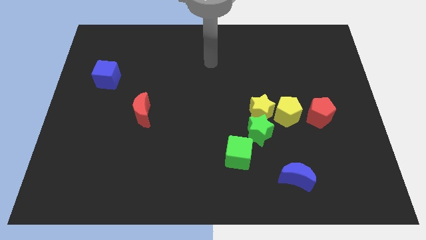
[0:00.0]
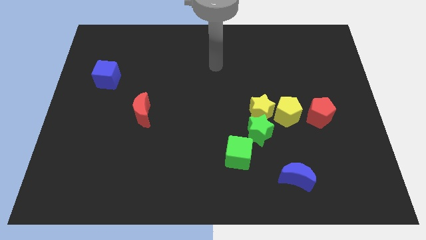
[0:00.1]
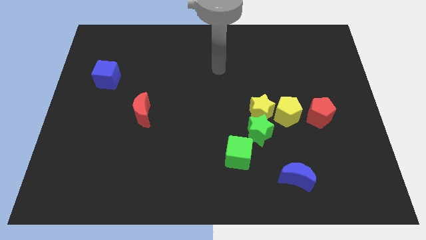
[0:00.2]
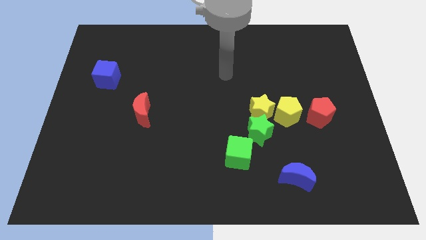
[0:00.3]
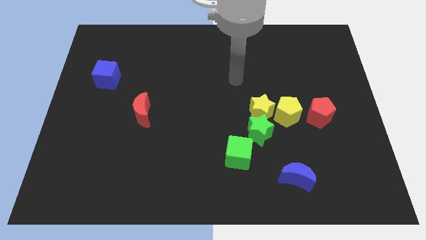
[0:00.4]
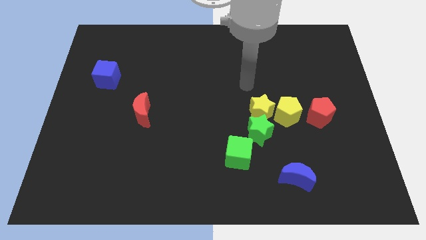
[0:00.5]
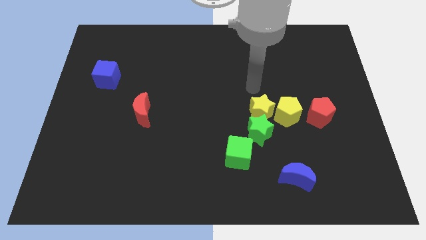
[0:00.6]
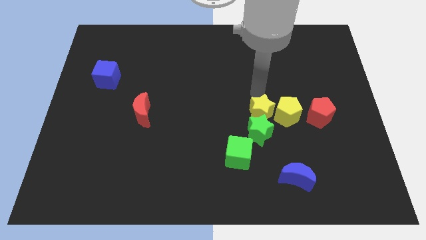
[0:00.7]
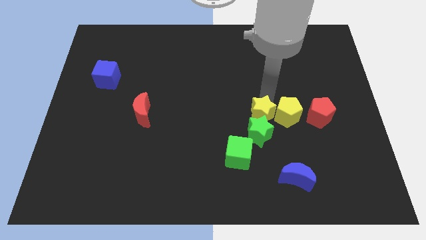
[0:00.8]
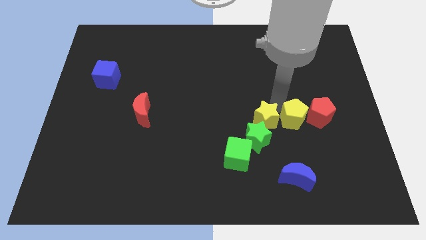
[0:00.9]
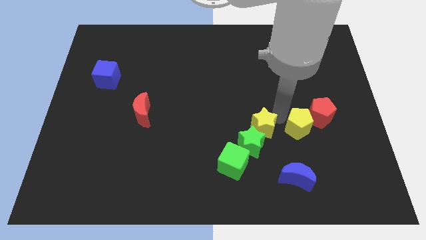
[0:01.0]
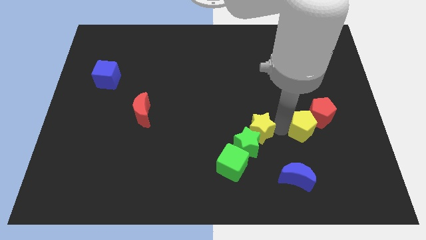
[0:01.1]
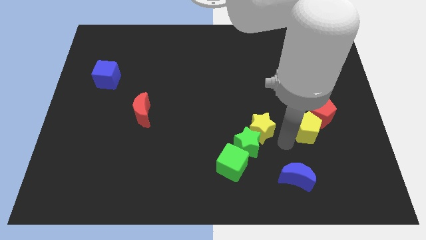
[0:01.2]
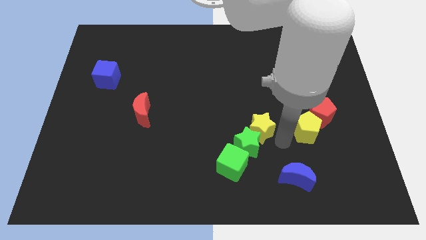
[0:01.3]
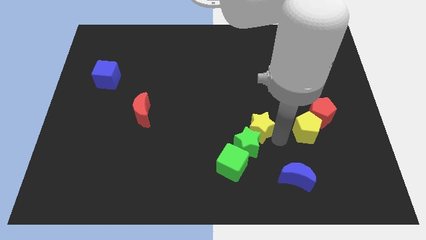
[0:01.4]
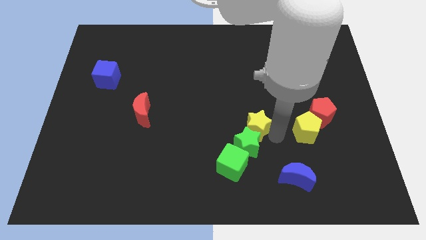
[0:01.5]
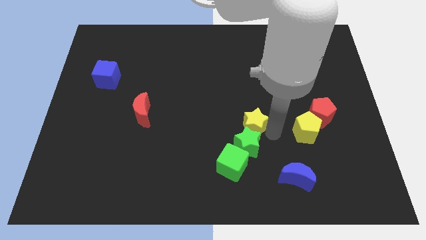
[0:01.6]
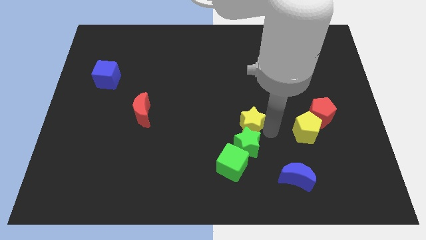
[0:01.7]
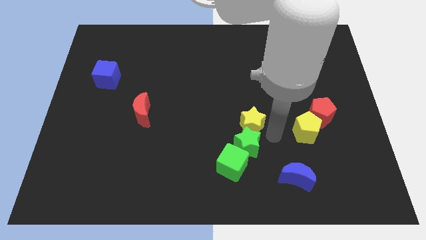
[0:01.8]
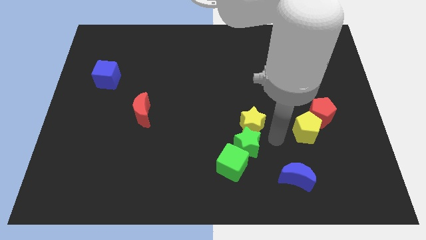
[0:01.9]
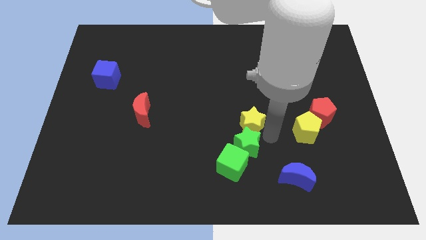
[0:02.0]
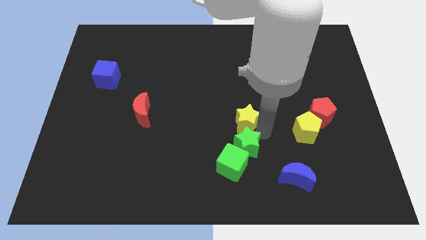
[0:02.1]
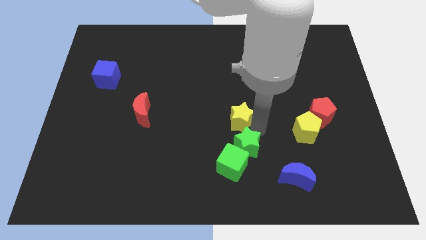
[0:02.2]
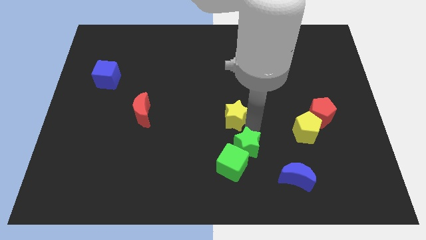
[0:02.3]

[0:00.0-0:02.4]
move the yellow star away from the green star and yellow pentagon

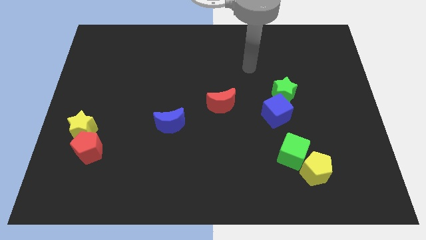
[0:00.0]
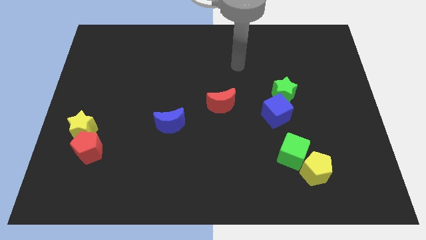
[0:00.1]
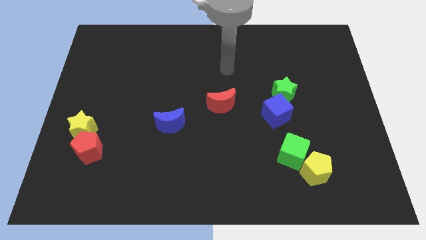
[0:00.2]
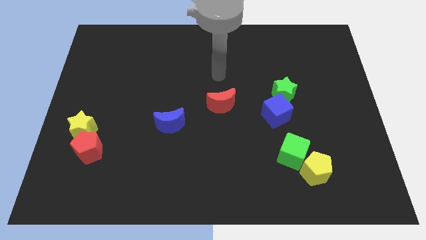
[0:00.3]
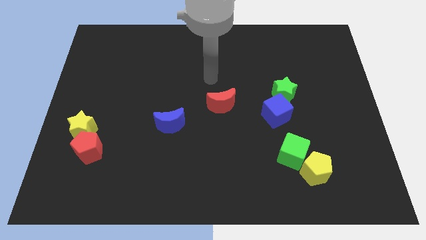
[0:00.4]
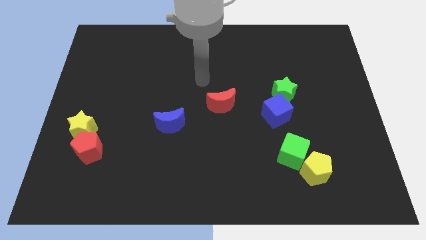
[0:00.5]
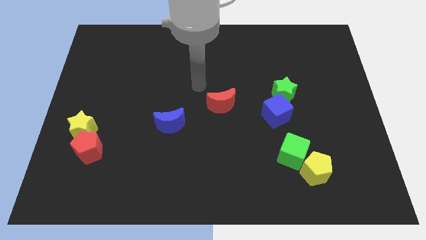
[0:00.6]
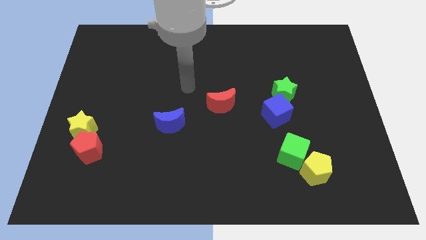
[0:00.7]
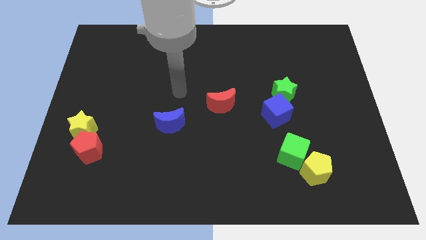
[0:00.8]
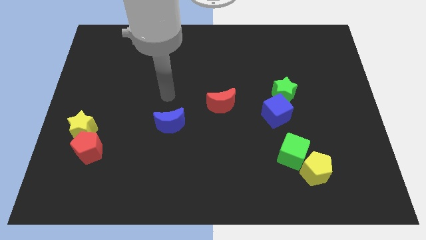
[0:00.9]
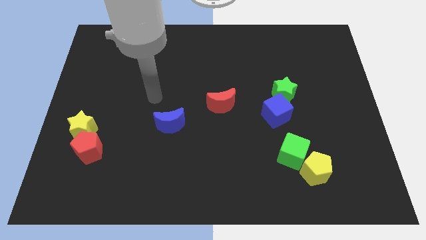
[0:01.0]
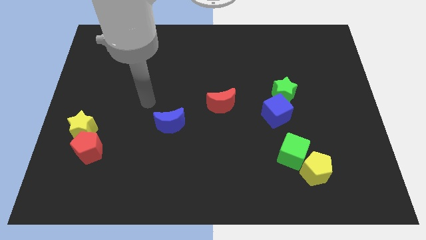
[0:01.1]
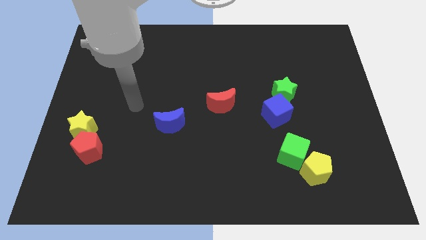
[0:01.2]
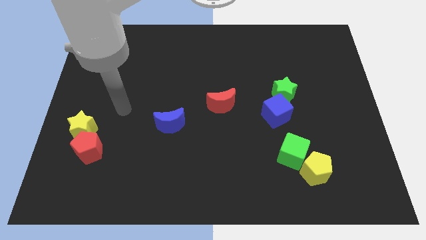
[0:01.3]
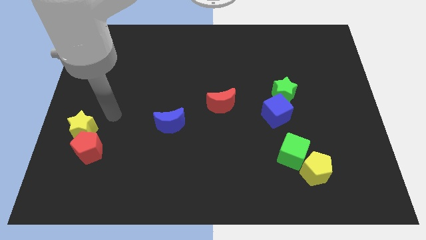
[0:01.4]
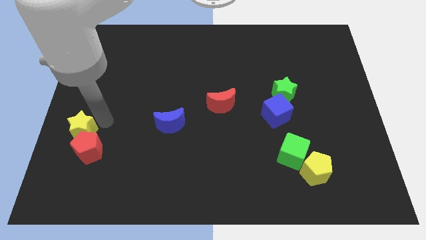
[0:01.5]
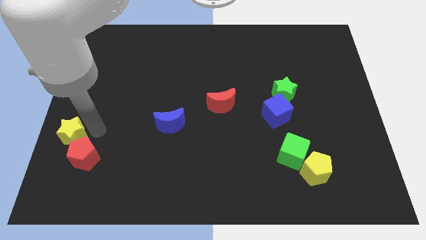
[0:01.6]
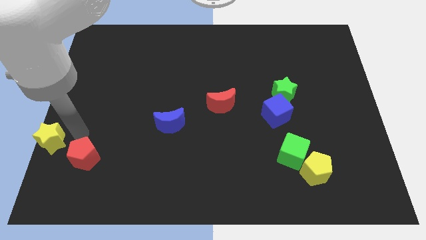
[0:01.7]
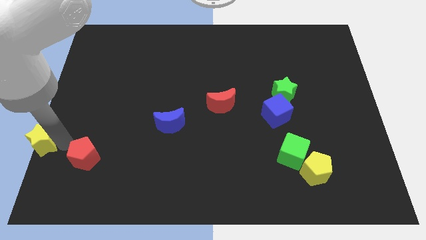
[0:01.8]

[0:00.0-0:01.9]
pull the red pentagon apart from the yellow star

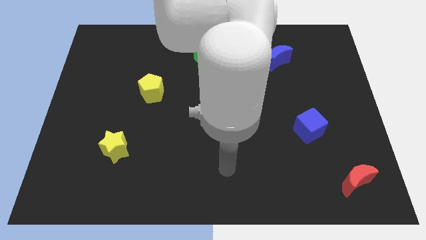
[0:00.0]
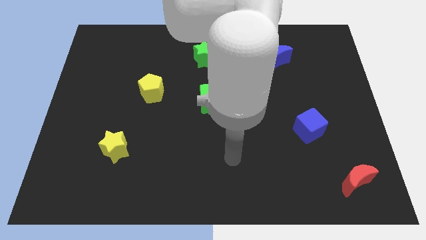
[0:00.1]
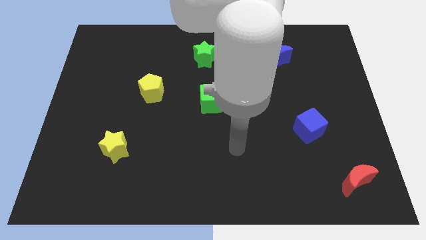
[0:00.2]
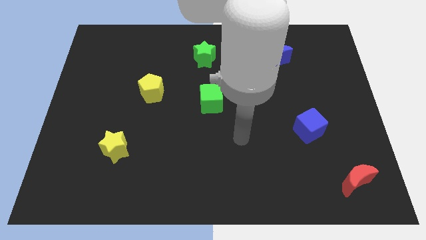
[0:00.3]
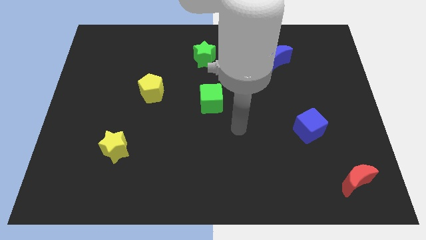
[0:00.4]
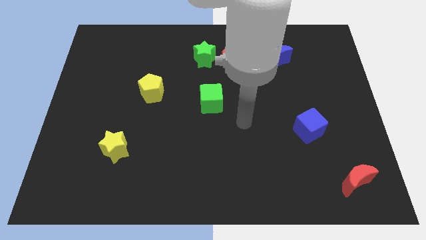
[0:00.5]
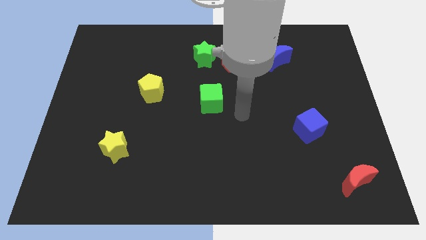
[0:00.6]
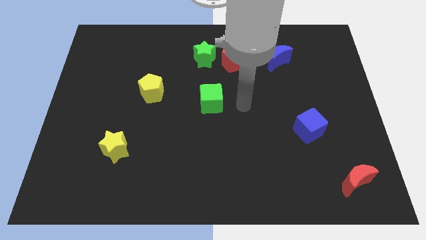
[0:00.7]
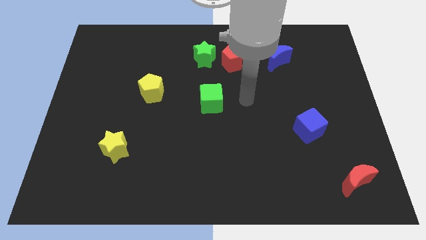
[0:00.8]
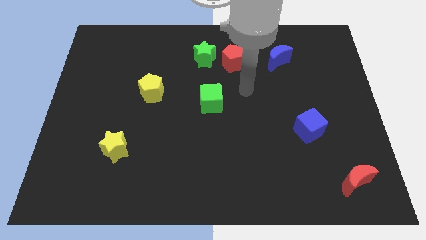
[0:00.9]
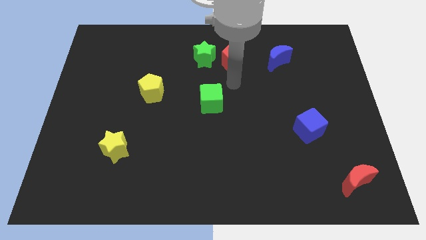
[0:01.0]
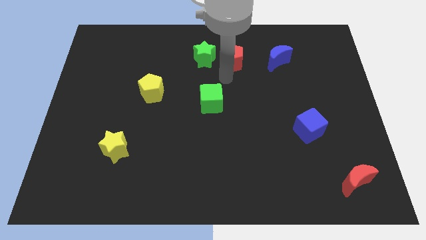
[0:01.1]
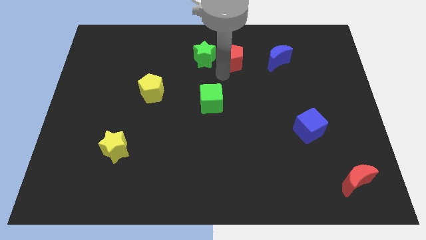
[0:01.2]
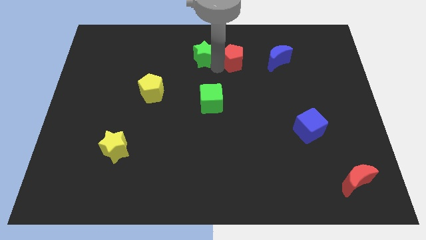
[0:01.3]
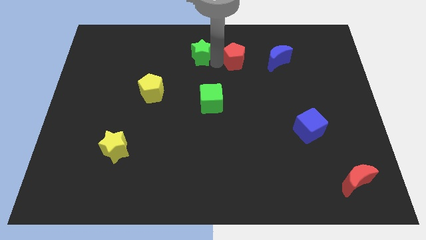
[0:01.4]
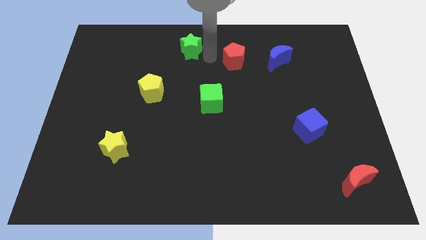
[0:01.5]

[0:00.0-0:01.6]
separate the red pentagon from the green star

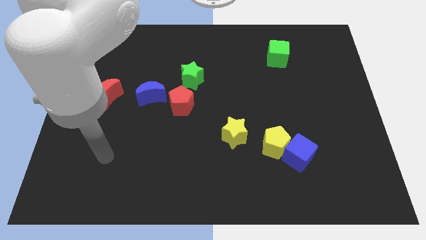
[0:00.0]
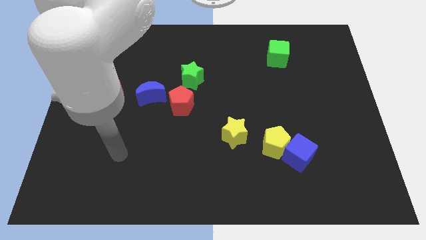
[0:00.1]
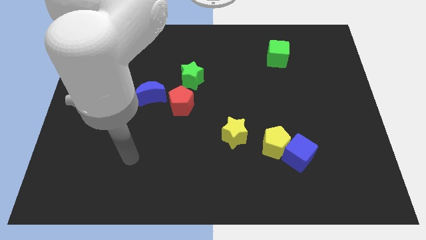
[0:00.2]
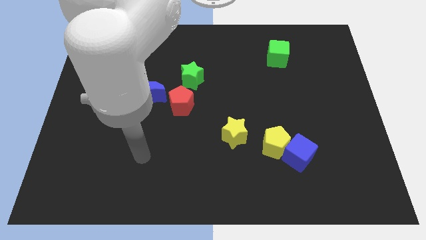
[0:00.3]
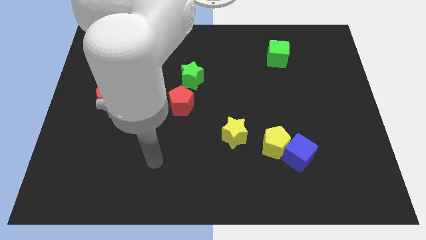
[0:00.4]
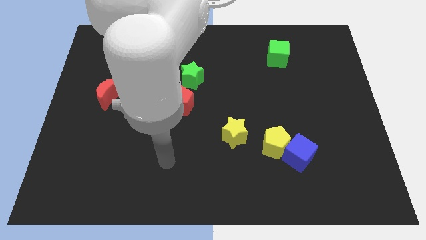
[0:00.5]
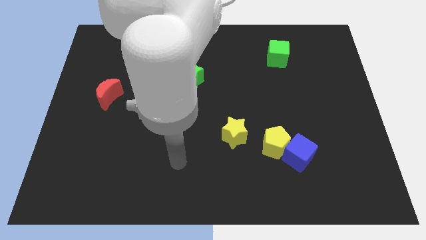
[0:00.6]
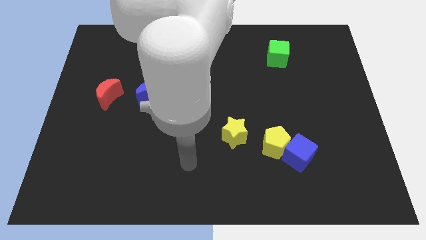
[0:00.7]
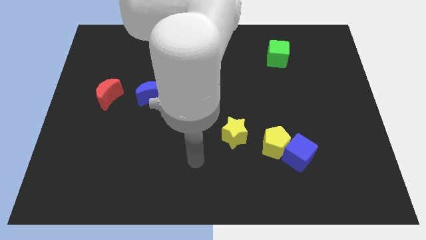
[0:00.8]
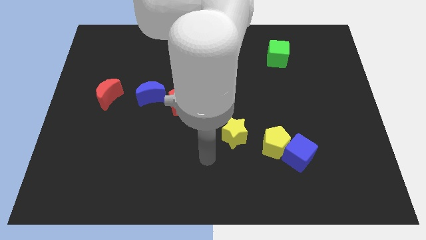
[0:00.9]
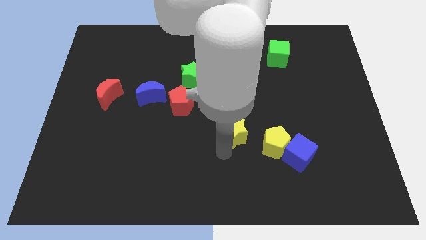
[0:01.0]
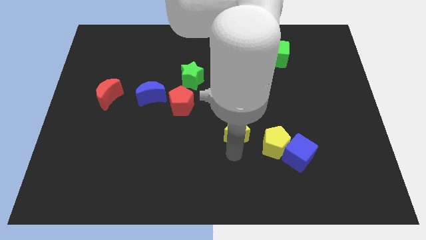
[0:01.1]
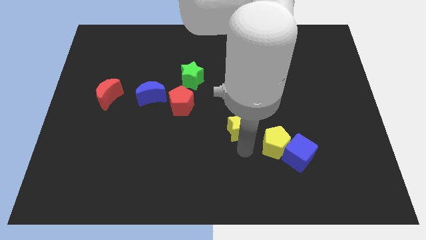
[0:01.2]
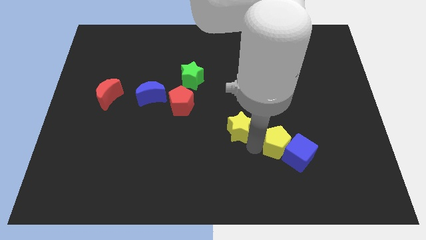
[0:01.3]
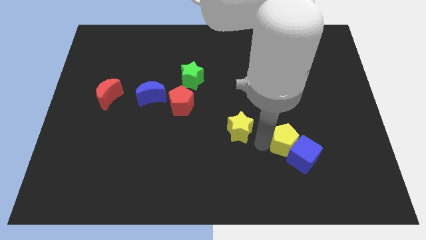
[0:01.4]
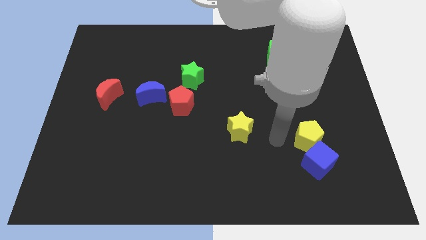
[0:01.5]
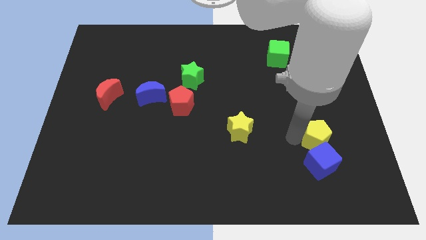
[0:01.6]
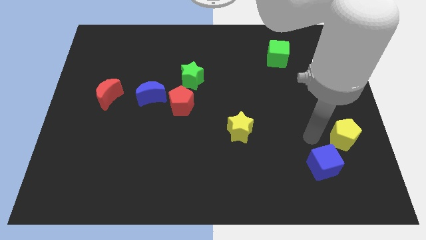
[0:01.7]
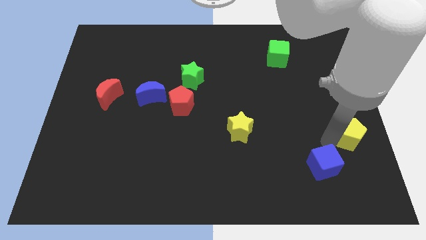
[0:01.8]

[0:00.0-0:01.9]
separate the blue cube from the yellow pentagon

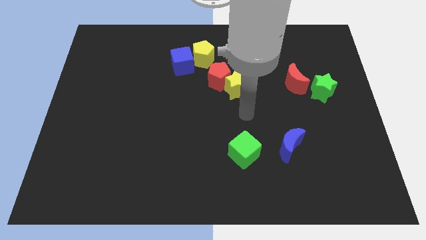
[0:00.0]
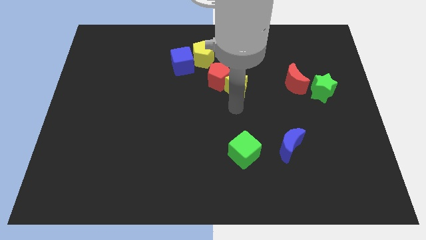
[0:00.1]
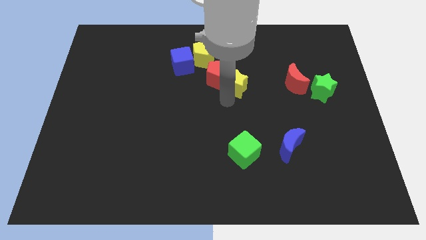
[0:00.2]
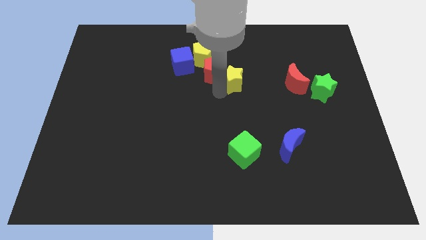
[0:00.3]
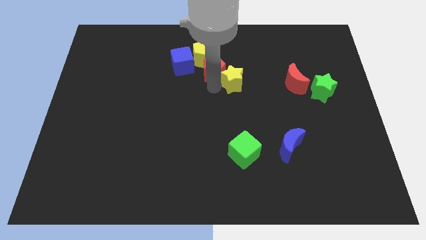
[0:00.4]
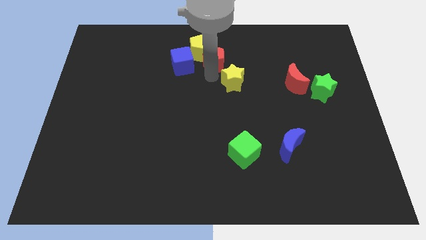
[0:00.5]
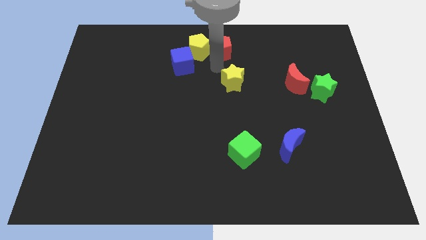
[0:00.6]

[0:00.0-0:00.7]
pull the yellow star apart from the red pentagon

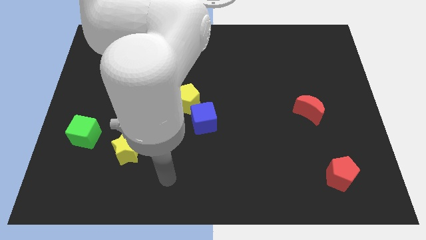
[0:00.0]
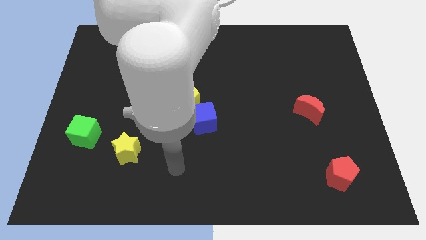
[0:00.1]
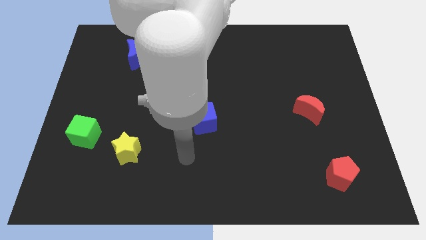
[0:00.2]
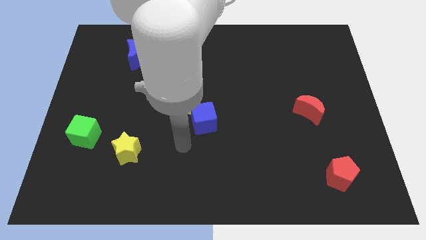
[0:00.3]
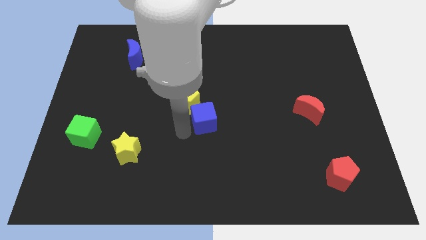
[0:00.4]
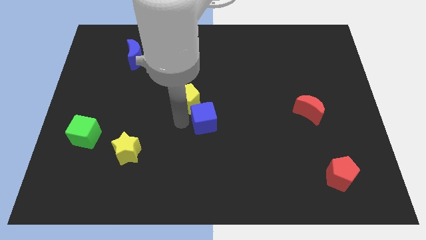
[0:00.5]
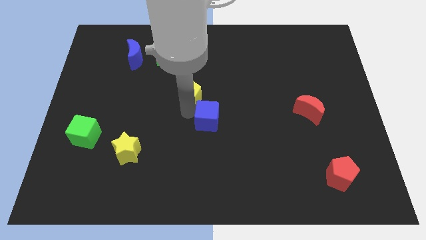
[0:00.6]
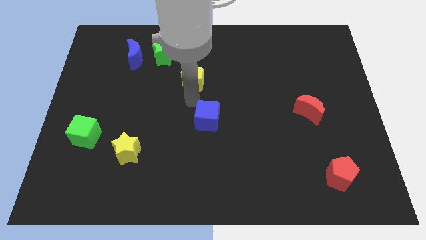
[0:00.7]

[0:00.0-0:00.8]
pull the blue cube apart from the yellow pentagon
